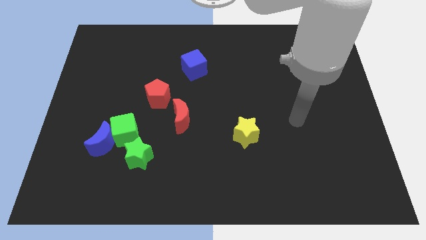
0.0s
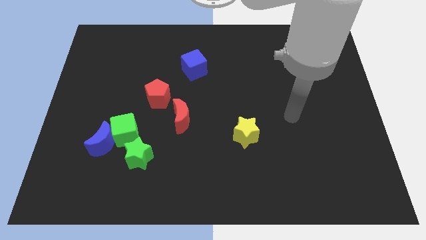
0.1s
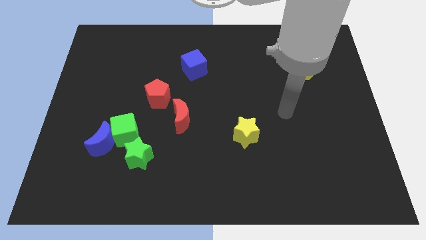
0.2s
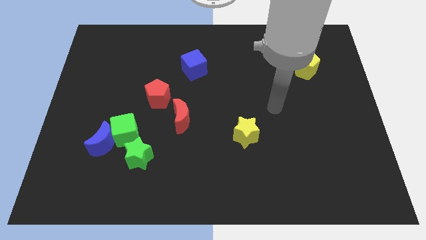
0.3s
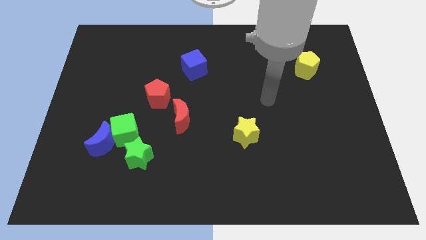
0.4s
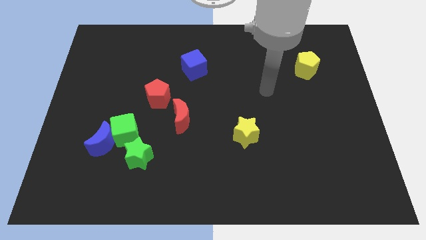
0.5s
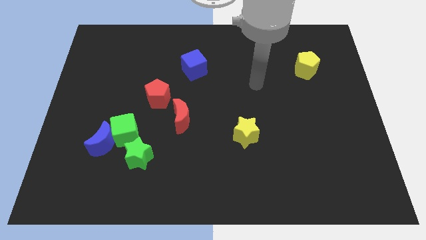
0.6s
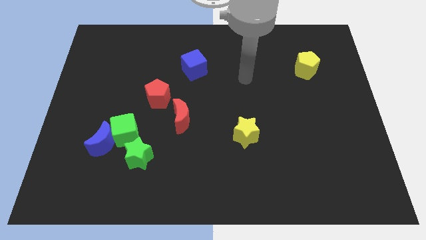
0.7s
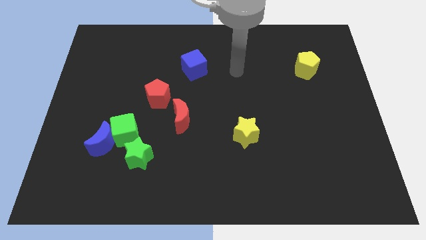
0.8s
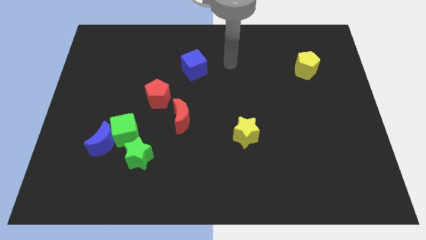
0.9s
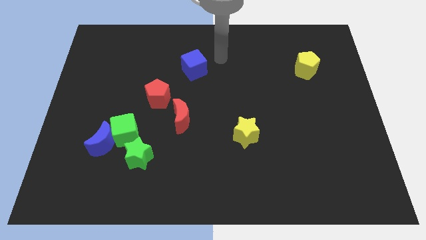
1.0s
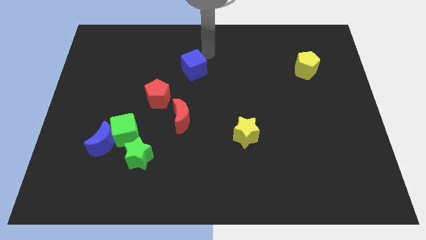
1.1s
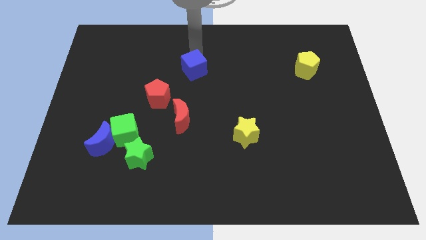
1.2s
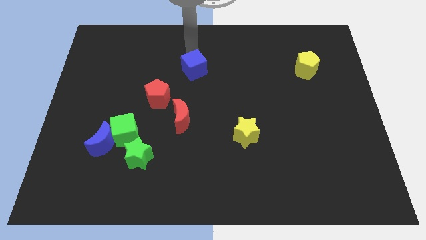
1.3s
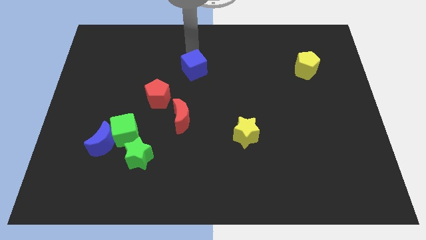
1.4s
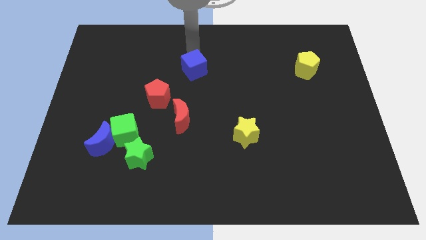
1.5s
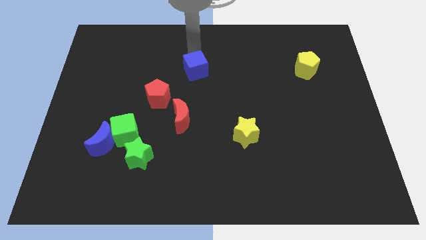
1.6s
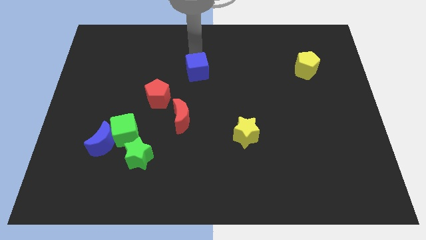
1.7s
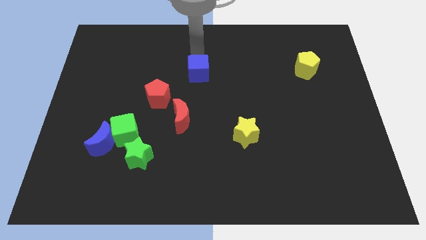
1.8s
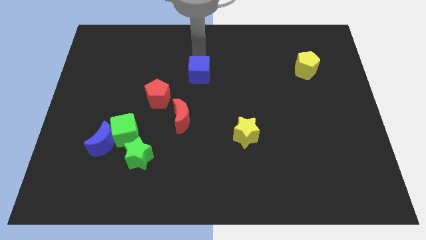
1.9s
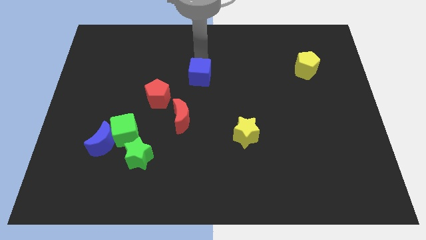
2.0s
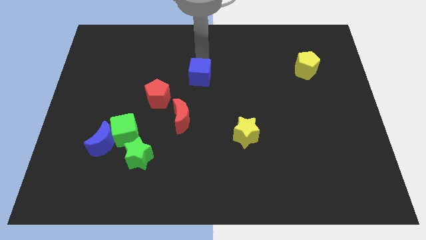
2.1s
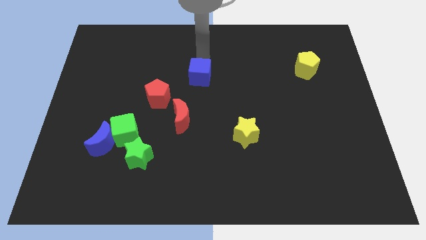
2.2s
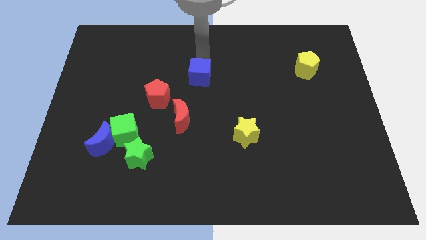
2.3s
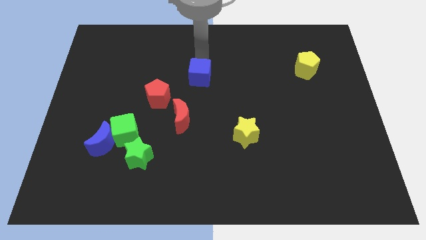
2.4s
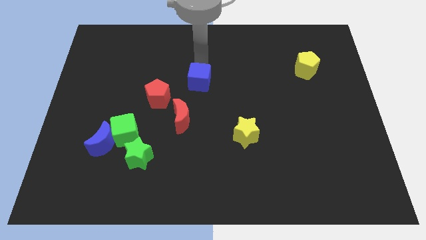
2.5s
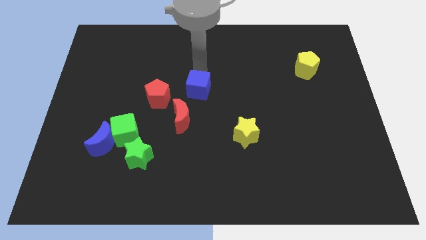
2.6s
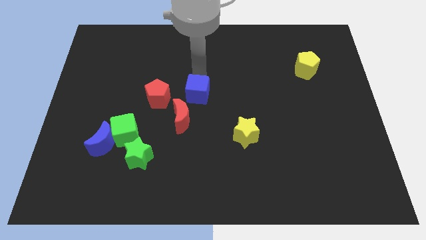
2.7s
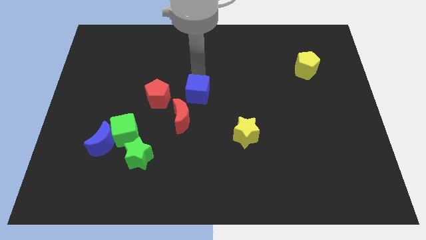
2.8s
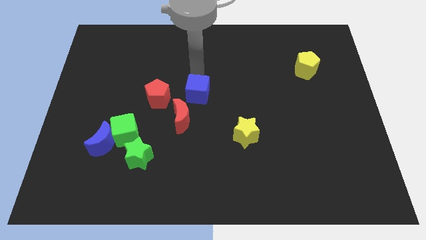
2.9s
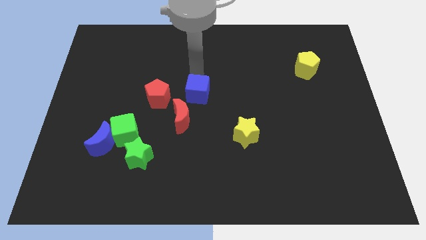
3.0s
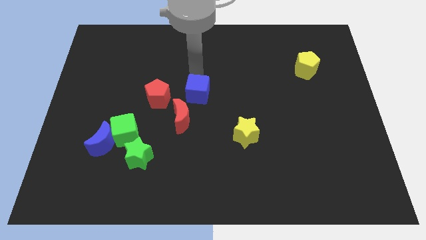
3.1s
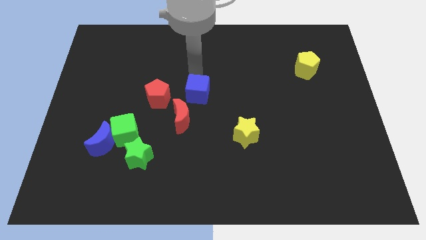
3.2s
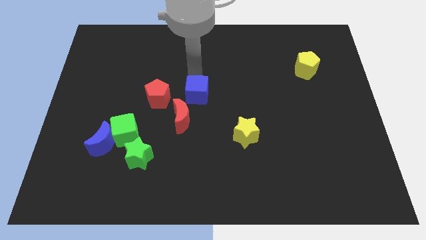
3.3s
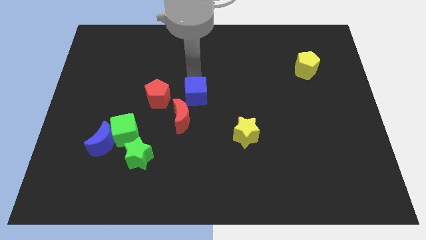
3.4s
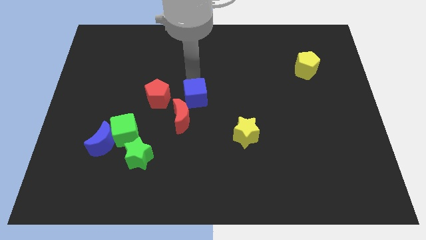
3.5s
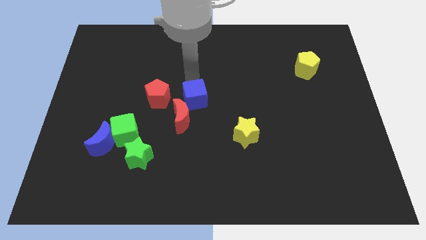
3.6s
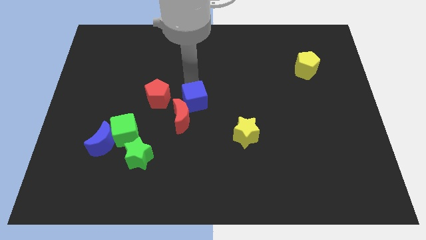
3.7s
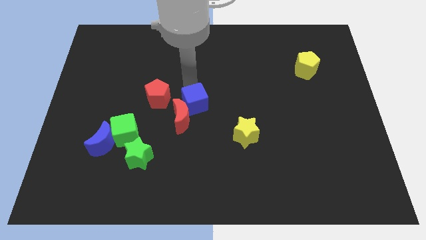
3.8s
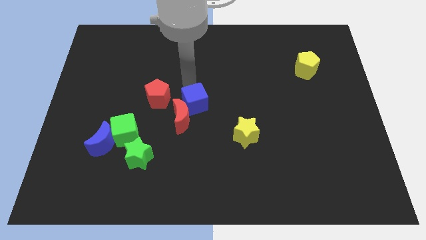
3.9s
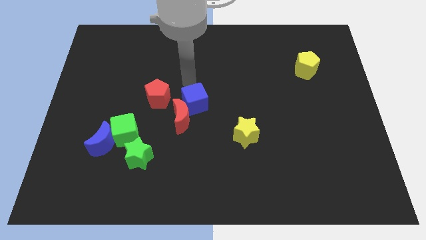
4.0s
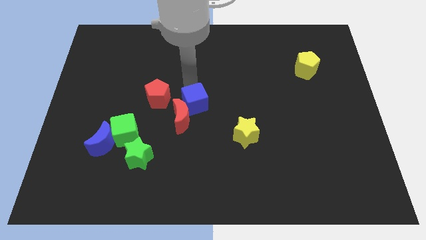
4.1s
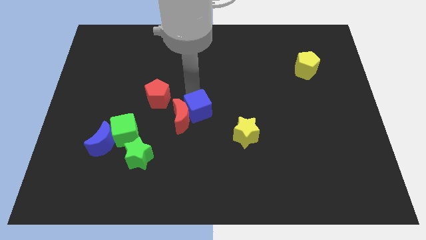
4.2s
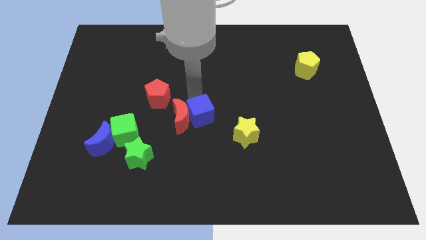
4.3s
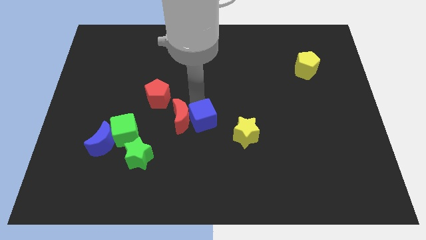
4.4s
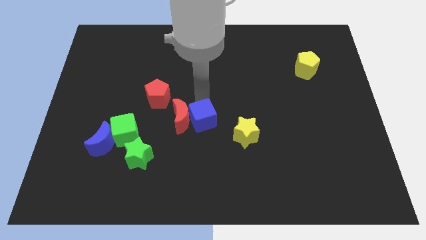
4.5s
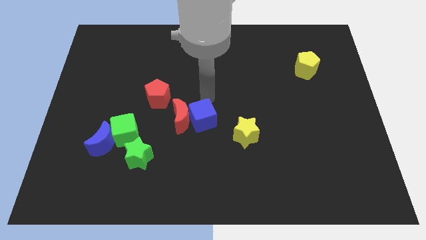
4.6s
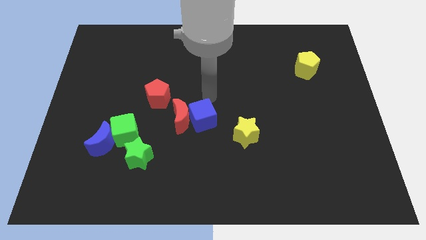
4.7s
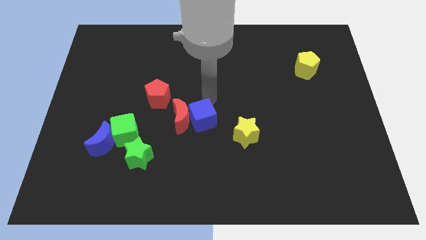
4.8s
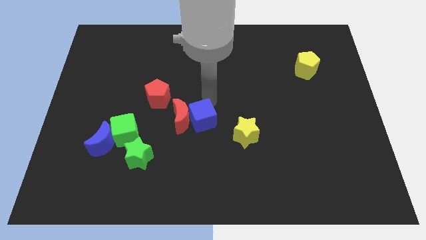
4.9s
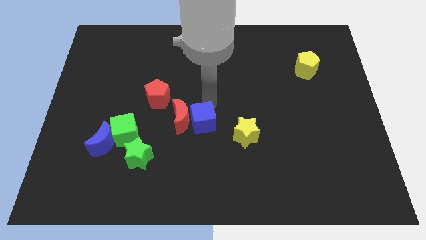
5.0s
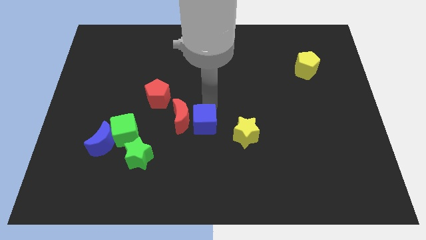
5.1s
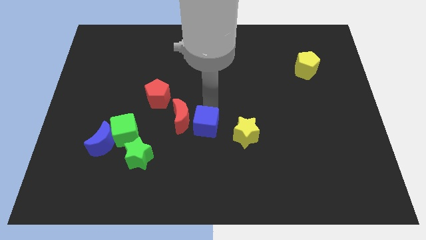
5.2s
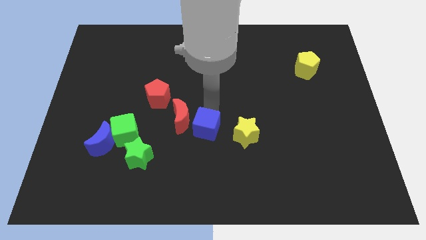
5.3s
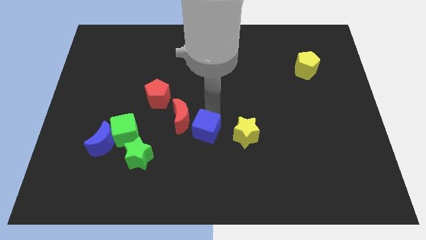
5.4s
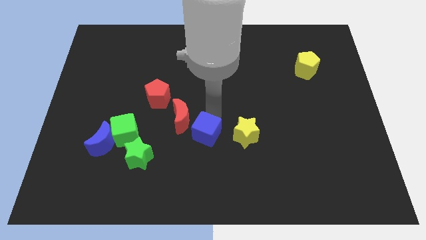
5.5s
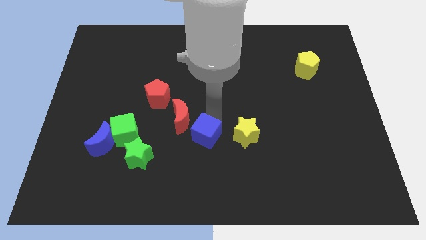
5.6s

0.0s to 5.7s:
move the blue cube downwards

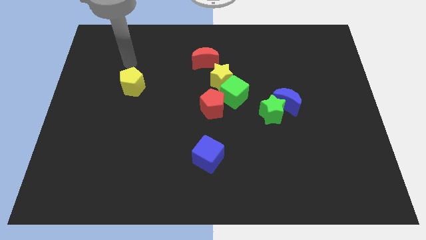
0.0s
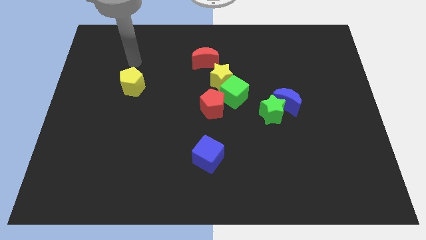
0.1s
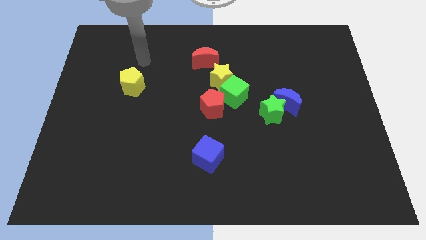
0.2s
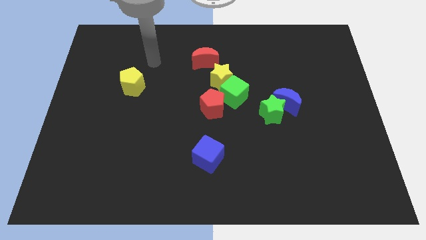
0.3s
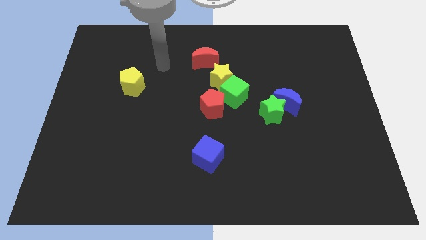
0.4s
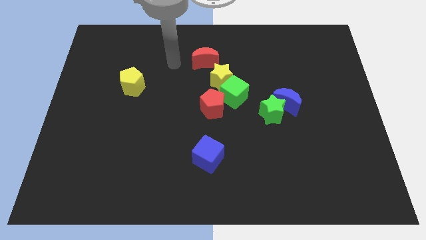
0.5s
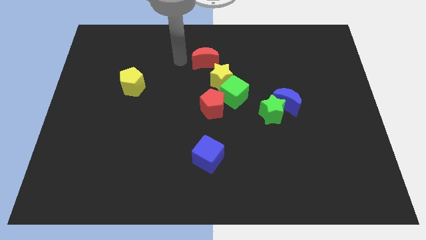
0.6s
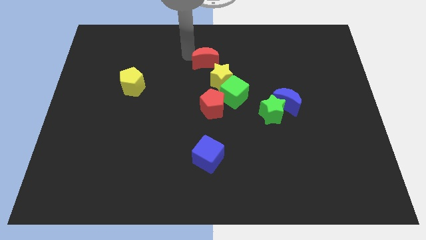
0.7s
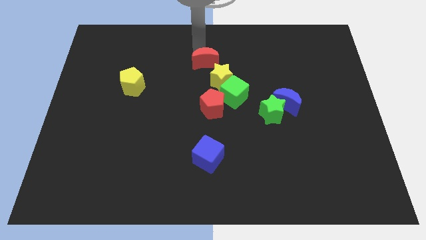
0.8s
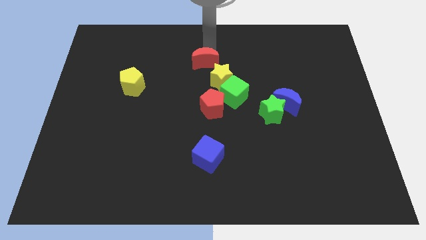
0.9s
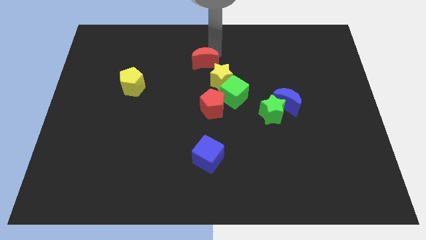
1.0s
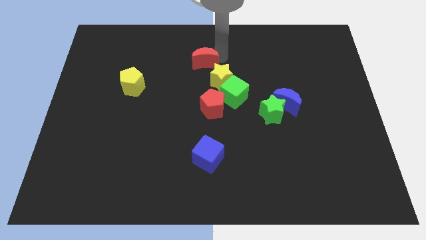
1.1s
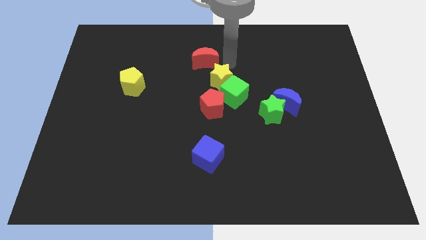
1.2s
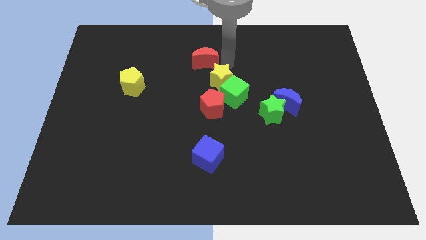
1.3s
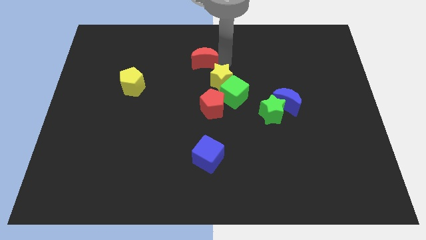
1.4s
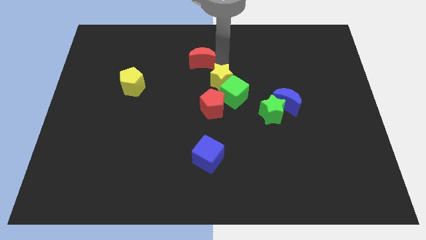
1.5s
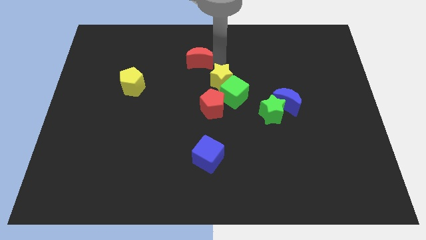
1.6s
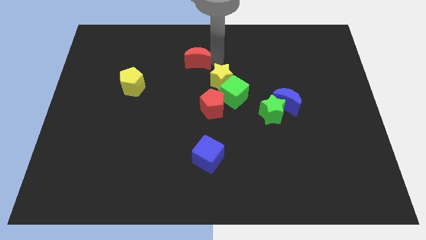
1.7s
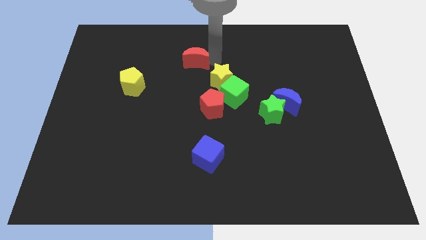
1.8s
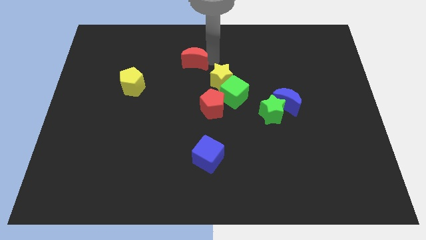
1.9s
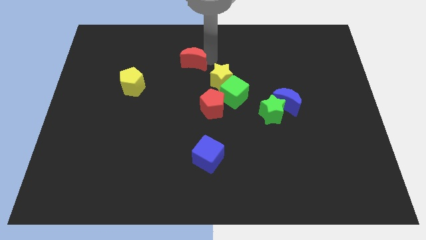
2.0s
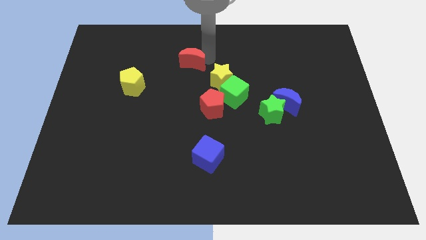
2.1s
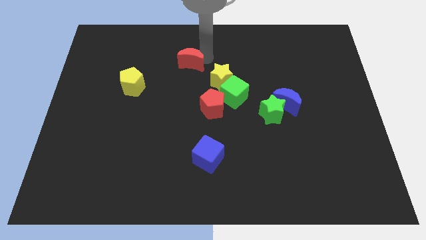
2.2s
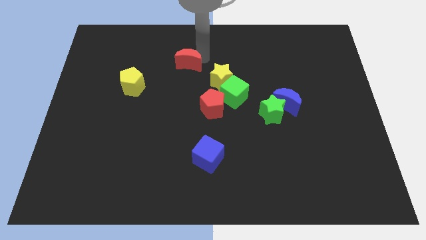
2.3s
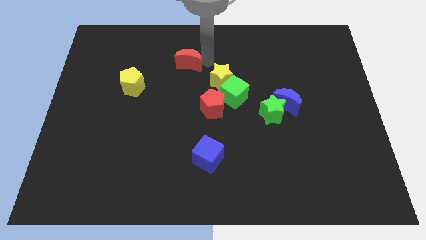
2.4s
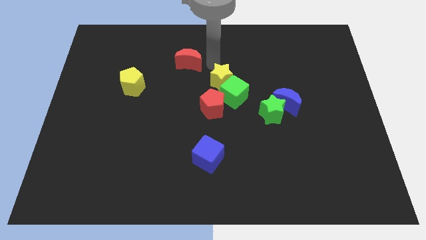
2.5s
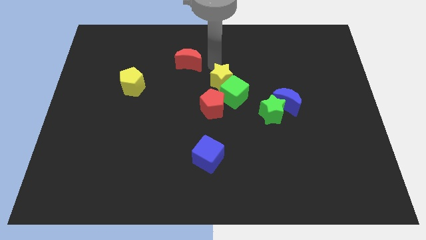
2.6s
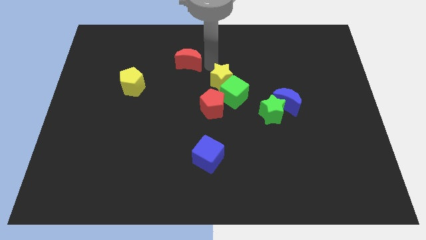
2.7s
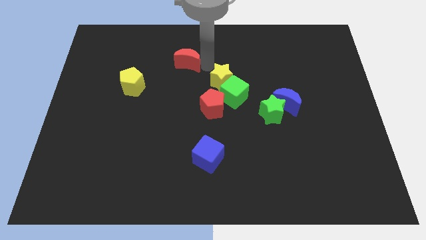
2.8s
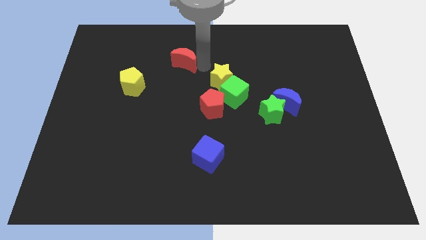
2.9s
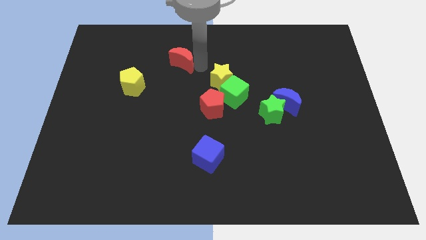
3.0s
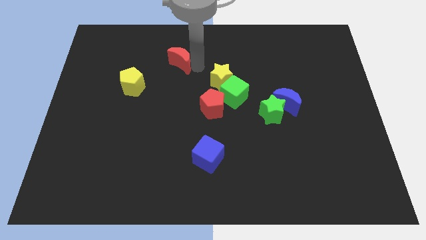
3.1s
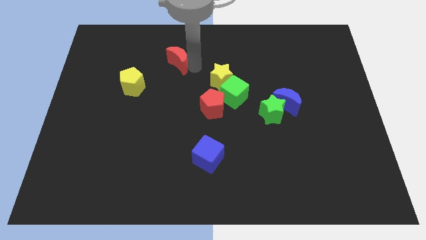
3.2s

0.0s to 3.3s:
slightly move the red moon to the left
